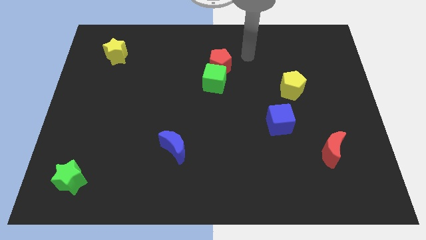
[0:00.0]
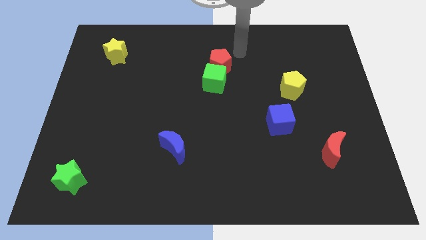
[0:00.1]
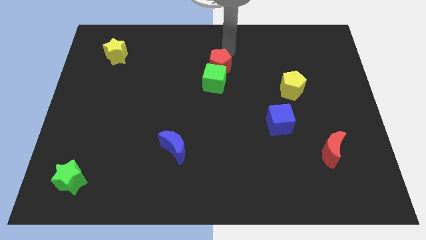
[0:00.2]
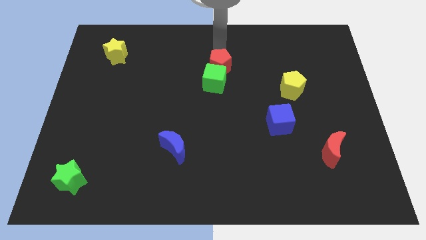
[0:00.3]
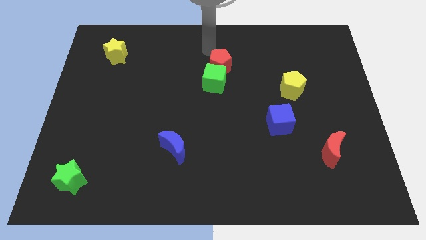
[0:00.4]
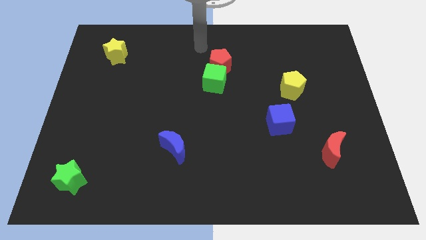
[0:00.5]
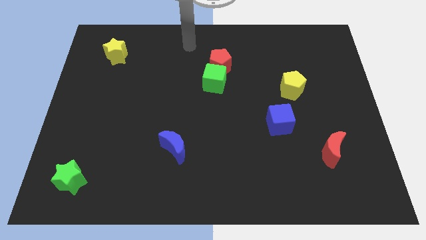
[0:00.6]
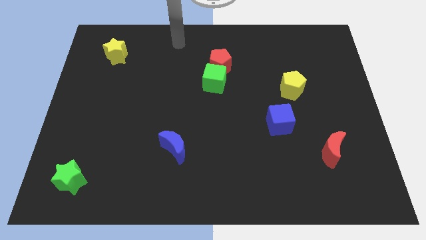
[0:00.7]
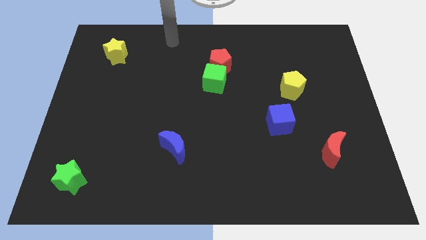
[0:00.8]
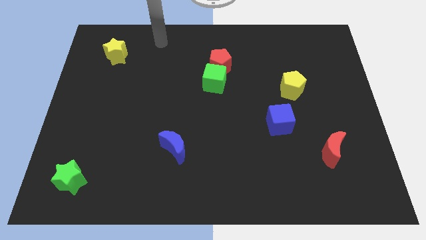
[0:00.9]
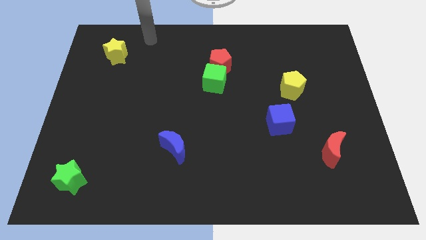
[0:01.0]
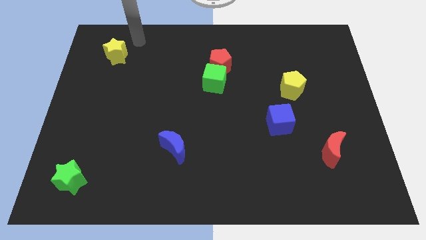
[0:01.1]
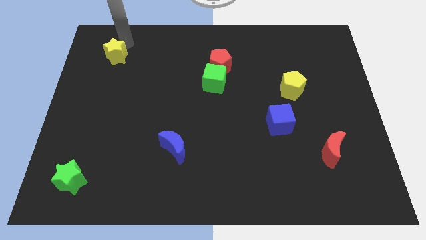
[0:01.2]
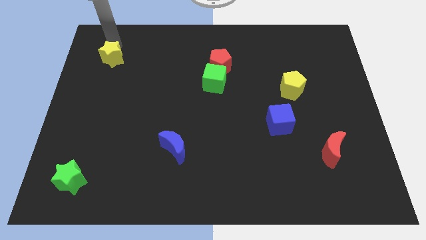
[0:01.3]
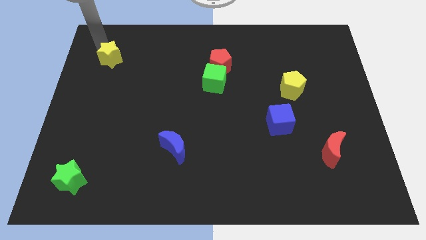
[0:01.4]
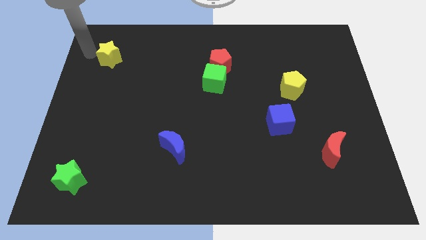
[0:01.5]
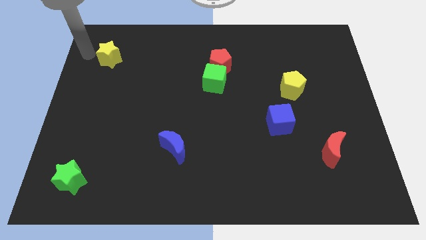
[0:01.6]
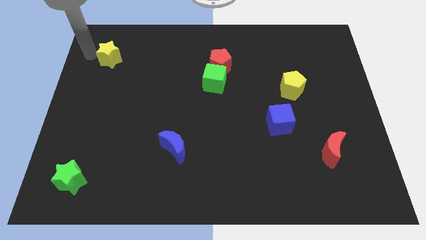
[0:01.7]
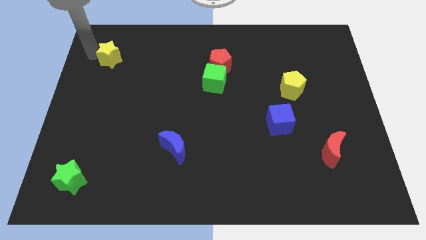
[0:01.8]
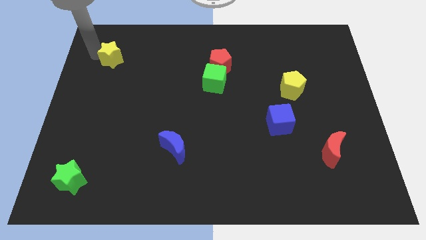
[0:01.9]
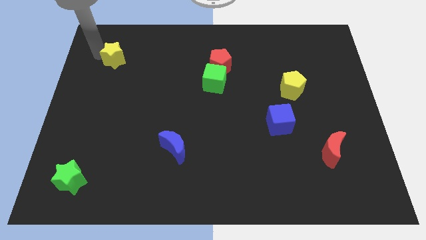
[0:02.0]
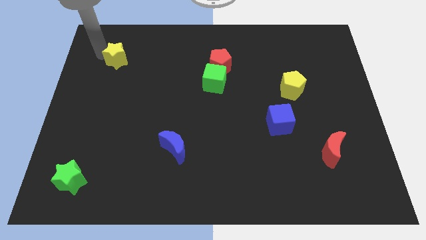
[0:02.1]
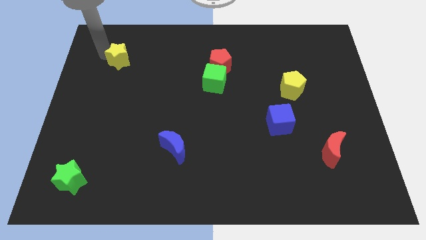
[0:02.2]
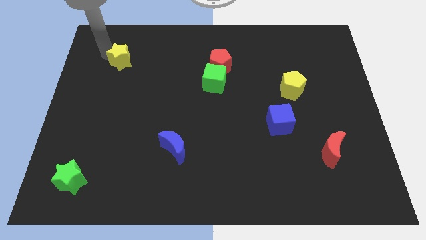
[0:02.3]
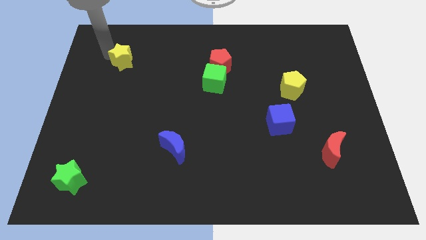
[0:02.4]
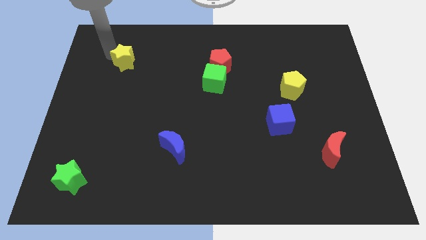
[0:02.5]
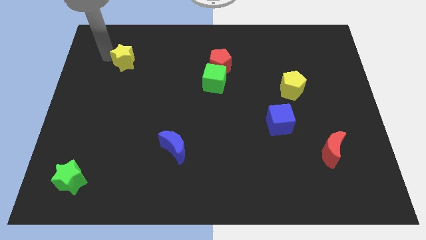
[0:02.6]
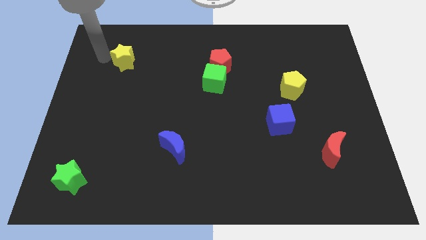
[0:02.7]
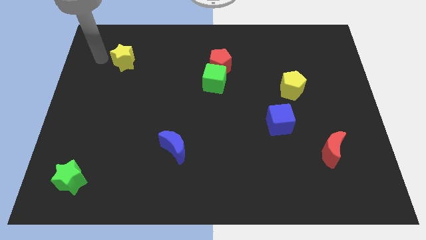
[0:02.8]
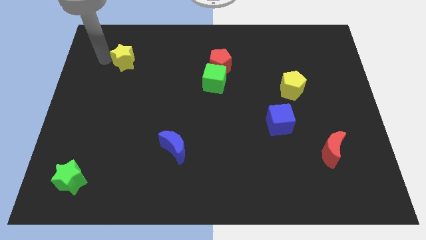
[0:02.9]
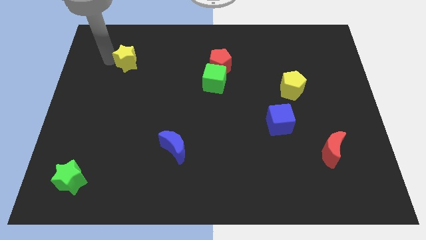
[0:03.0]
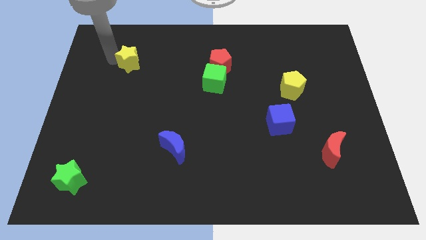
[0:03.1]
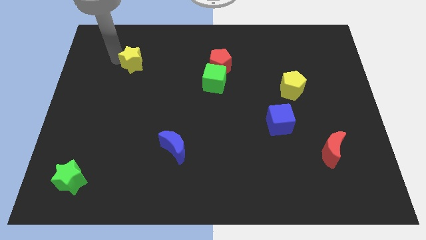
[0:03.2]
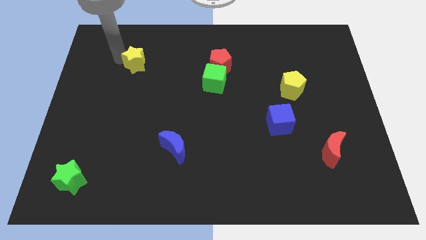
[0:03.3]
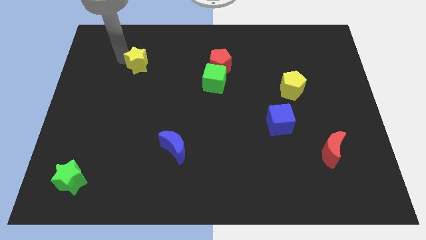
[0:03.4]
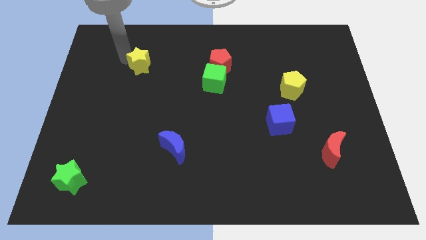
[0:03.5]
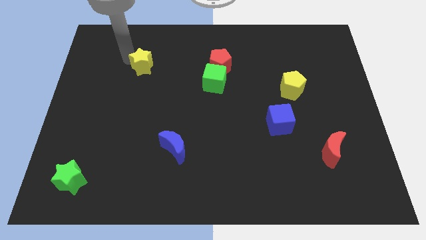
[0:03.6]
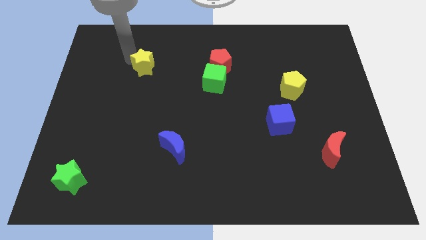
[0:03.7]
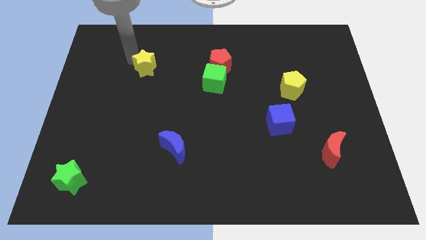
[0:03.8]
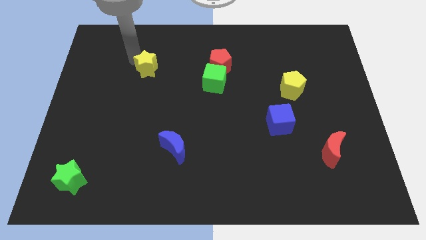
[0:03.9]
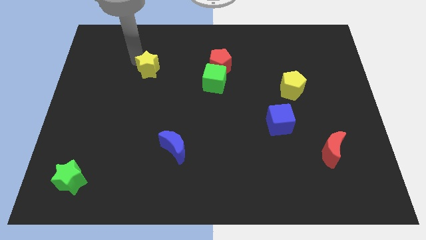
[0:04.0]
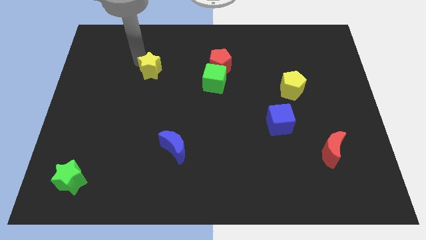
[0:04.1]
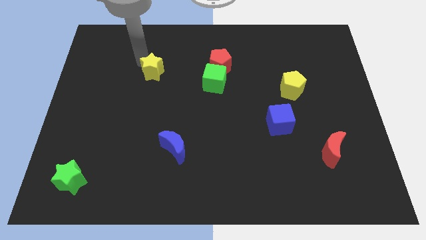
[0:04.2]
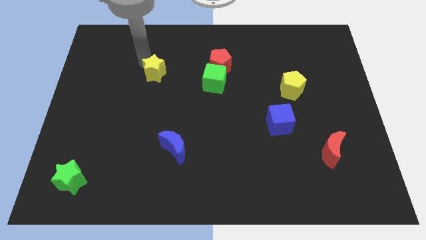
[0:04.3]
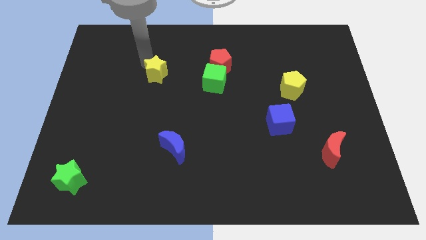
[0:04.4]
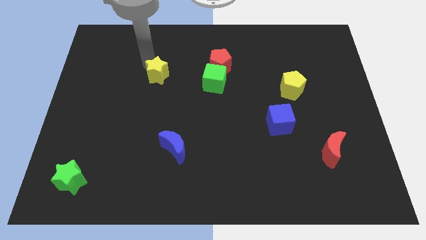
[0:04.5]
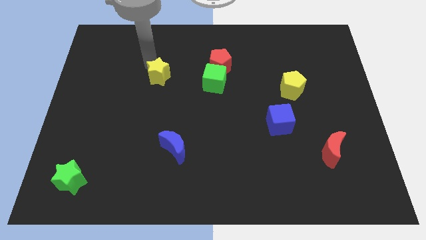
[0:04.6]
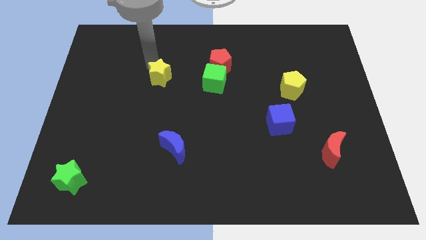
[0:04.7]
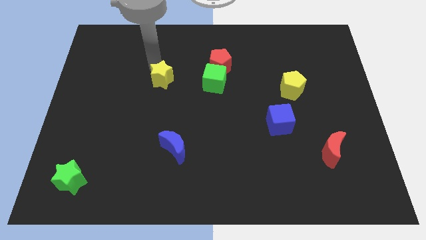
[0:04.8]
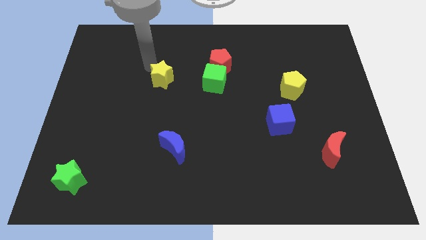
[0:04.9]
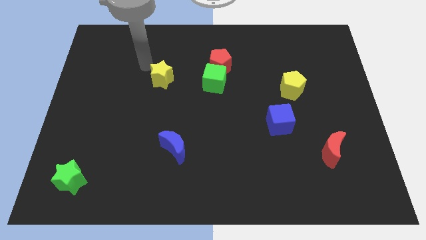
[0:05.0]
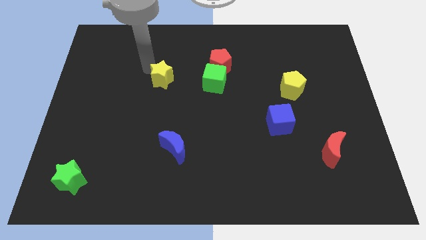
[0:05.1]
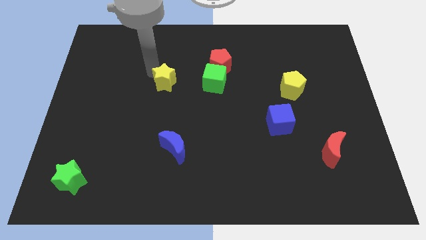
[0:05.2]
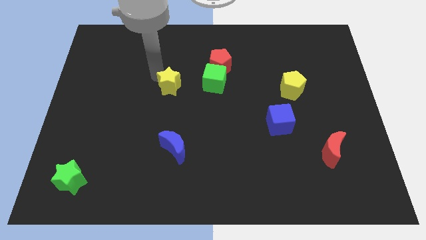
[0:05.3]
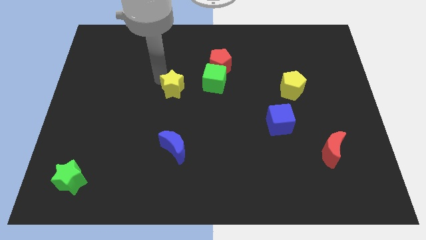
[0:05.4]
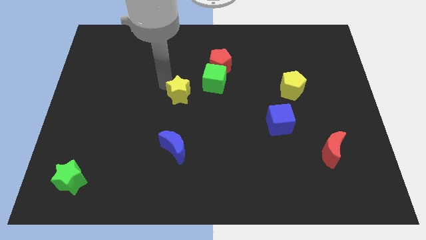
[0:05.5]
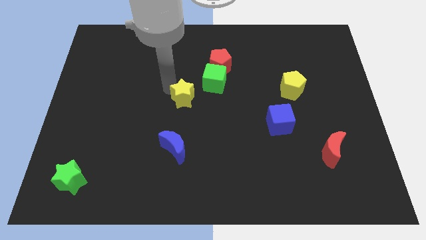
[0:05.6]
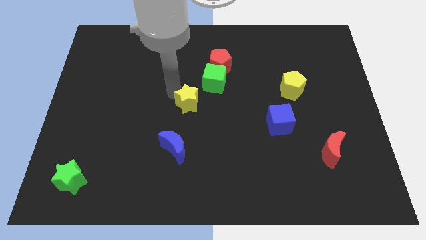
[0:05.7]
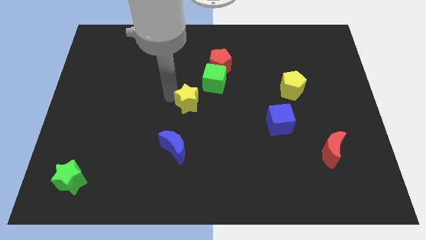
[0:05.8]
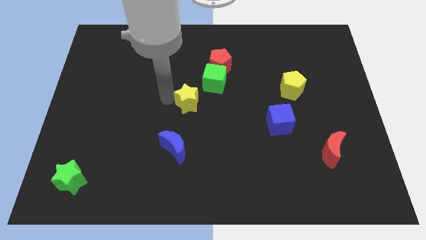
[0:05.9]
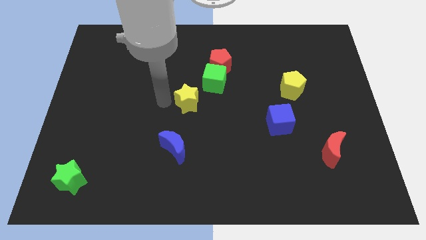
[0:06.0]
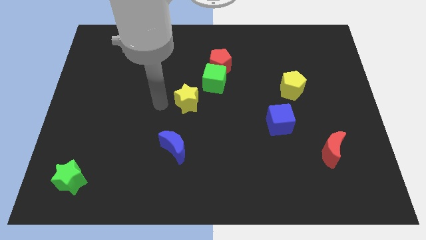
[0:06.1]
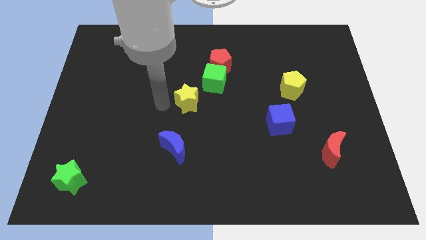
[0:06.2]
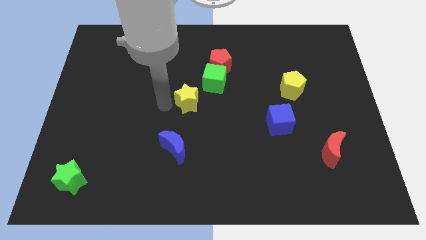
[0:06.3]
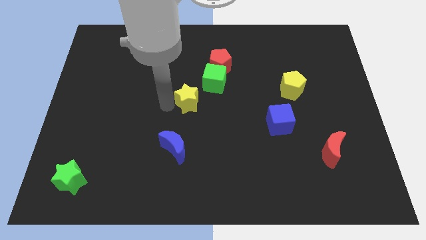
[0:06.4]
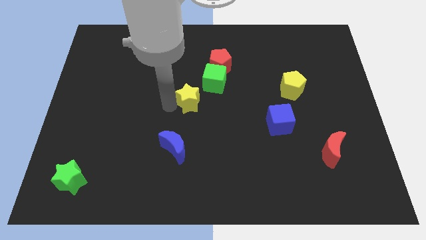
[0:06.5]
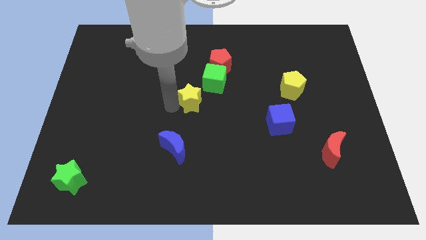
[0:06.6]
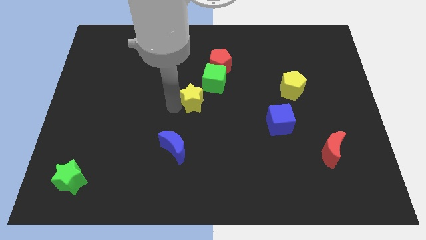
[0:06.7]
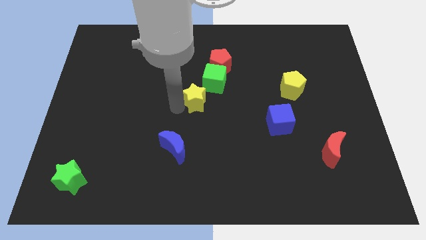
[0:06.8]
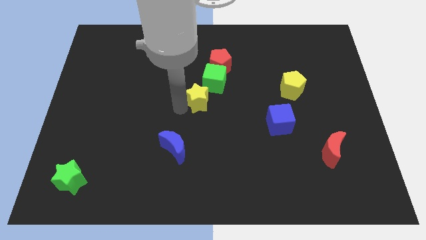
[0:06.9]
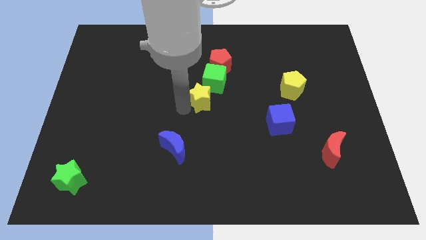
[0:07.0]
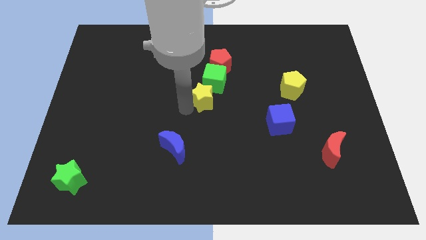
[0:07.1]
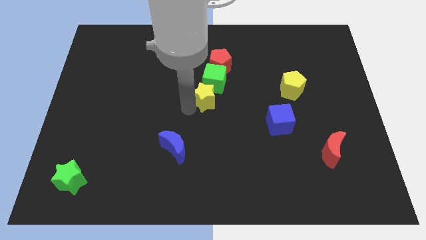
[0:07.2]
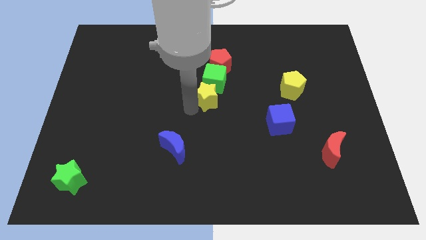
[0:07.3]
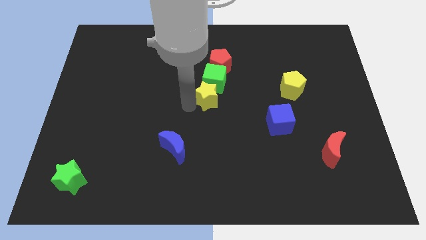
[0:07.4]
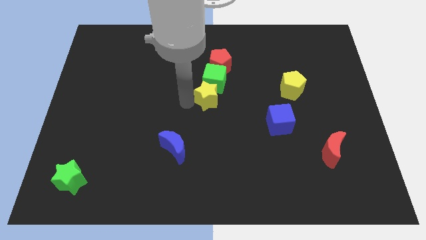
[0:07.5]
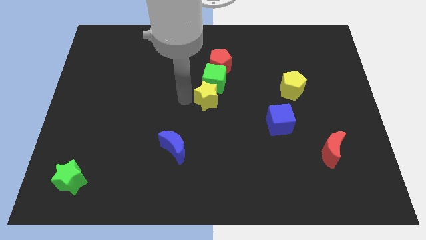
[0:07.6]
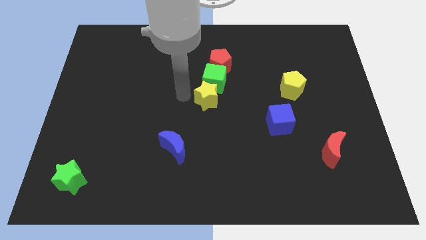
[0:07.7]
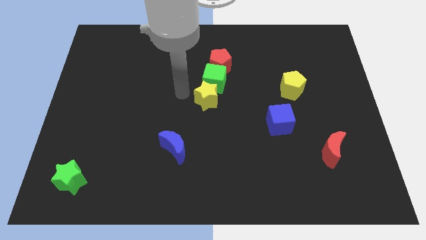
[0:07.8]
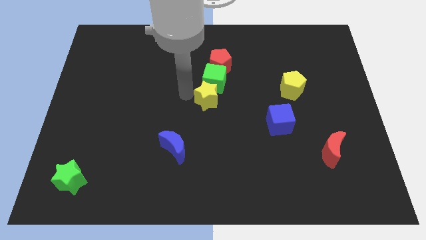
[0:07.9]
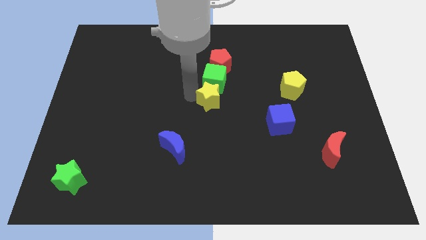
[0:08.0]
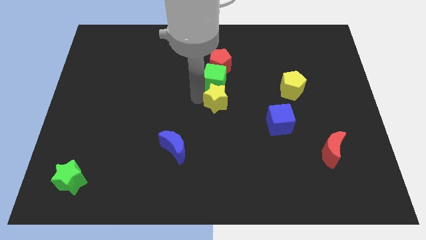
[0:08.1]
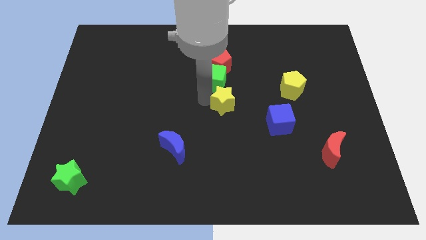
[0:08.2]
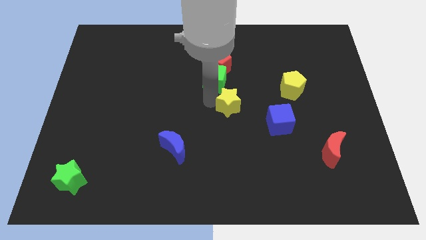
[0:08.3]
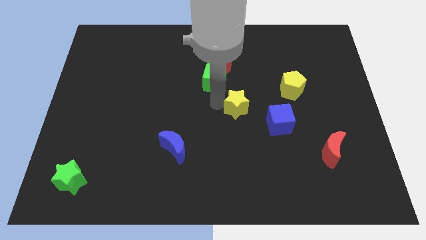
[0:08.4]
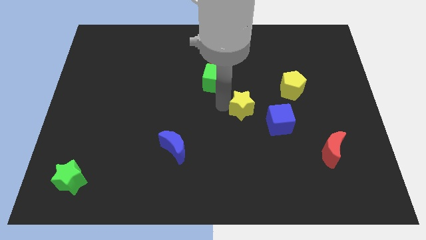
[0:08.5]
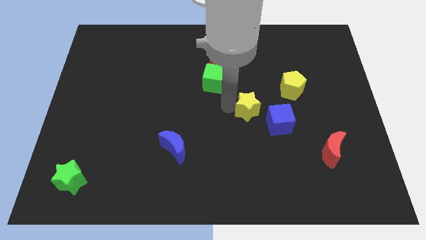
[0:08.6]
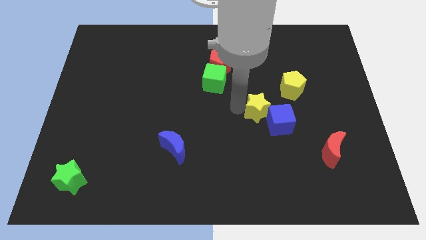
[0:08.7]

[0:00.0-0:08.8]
slide the yellow star close to the blue cube
